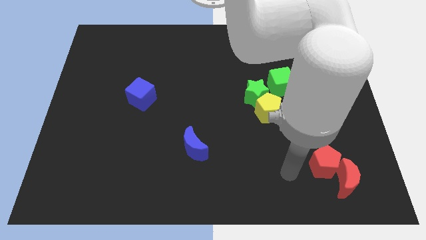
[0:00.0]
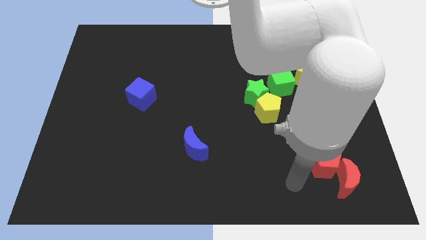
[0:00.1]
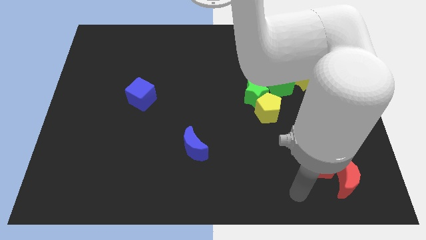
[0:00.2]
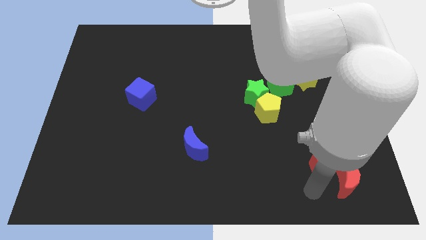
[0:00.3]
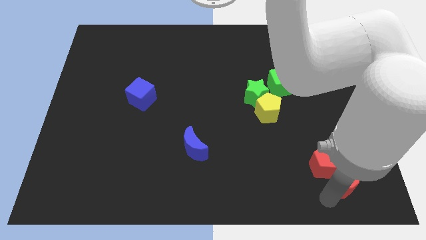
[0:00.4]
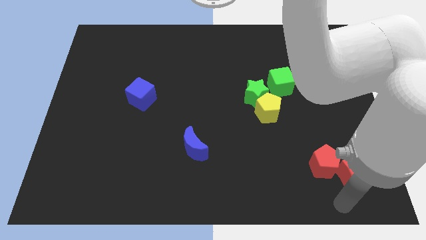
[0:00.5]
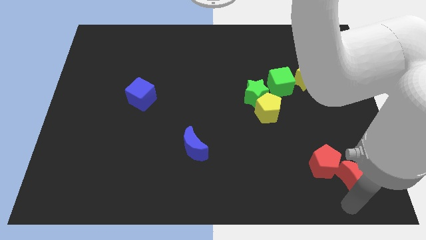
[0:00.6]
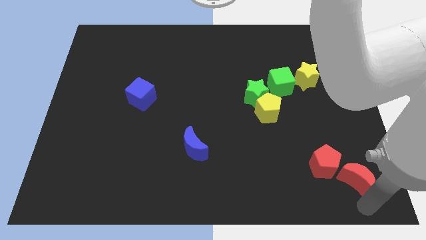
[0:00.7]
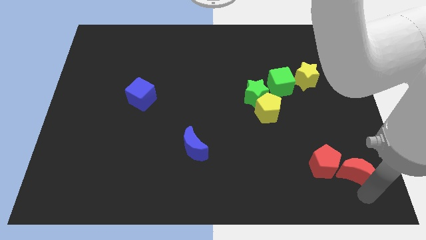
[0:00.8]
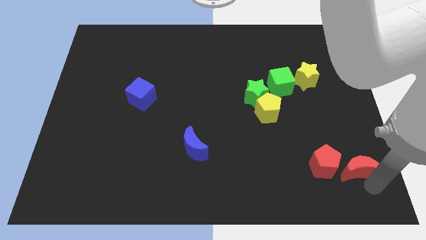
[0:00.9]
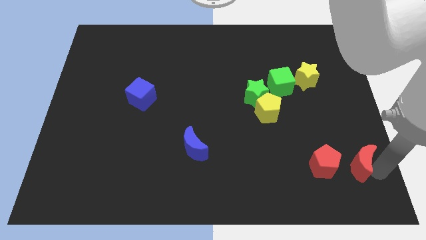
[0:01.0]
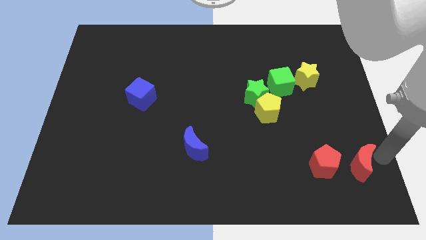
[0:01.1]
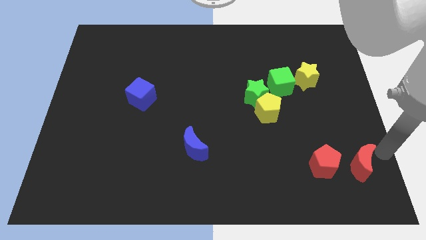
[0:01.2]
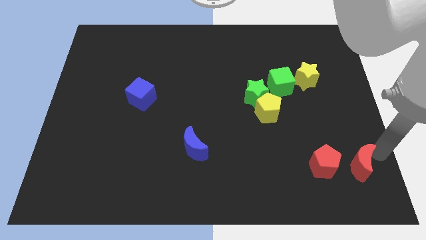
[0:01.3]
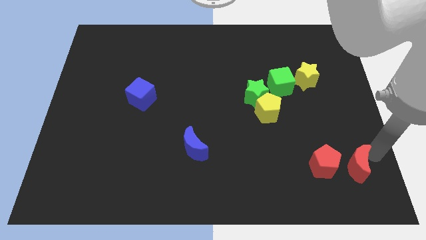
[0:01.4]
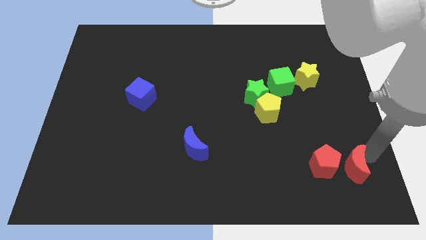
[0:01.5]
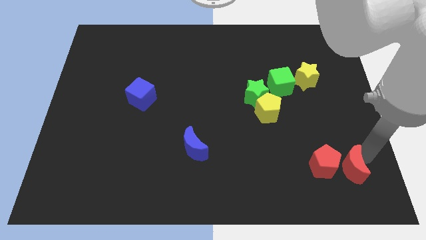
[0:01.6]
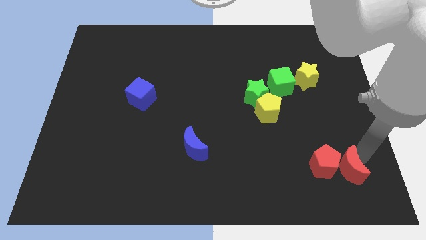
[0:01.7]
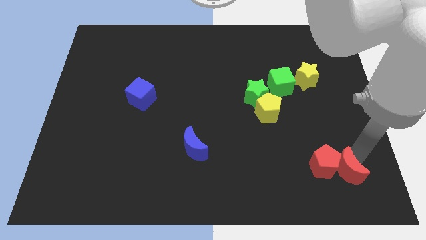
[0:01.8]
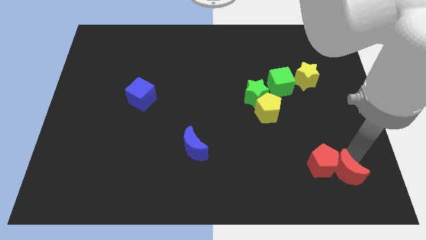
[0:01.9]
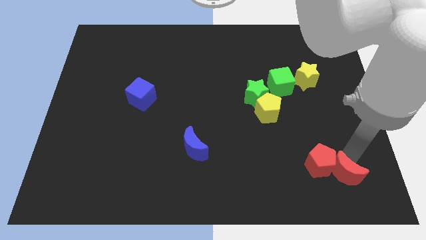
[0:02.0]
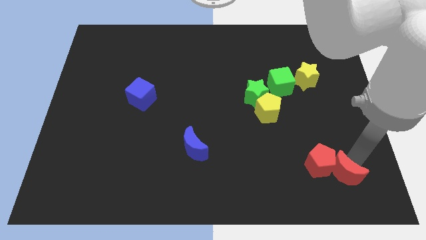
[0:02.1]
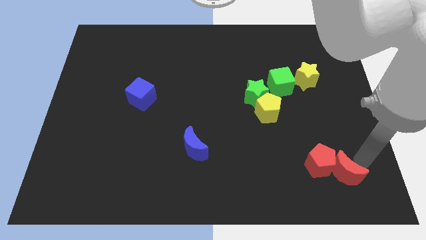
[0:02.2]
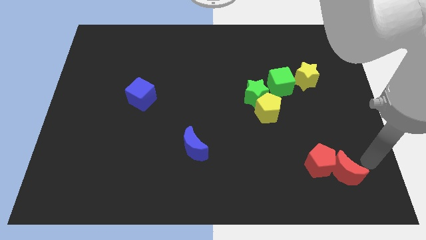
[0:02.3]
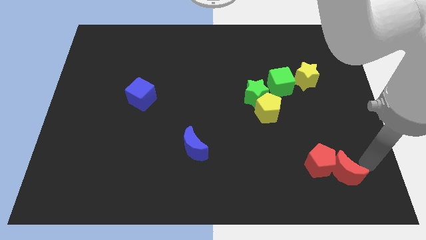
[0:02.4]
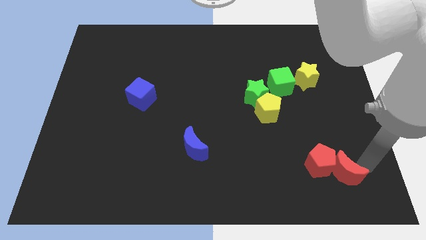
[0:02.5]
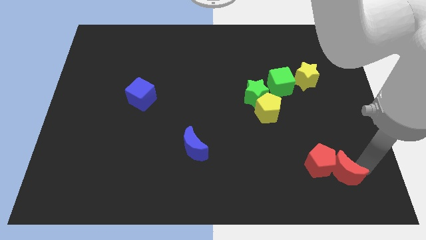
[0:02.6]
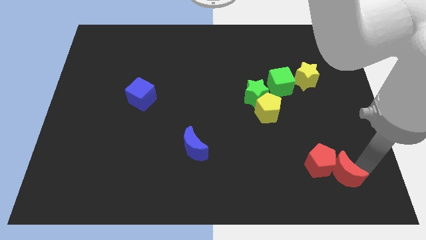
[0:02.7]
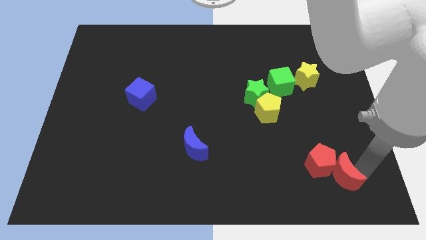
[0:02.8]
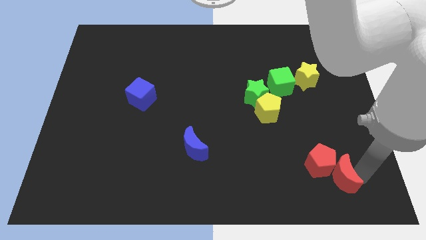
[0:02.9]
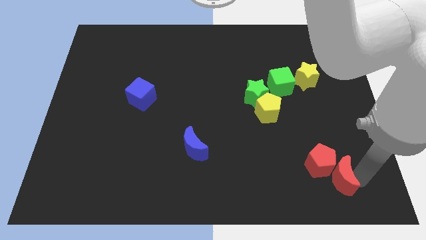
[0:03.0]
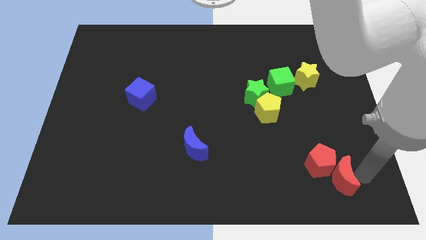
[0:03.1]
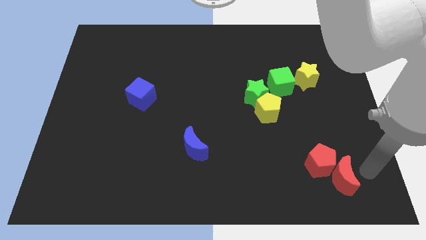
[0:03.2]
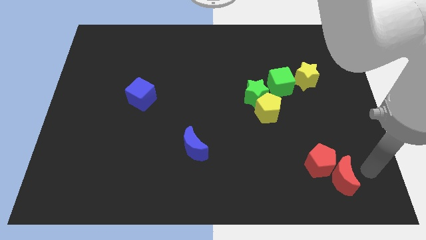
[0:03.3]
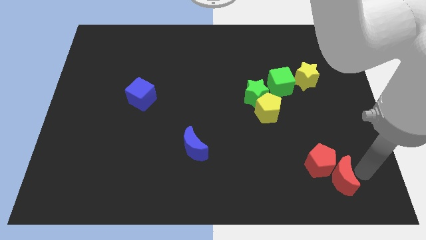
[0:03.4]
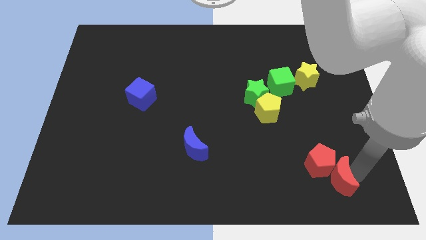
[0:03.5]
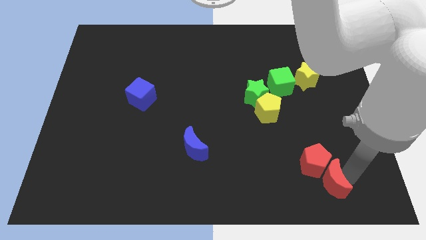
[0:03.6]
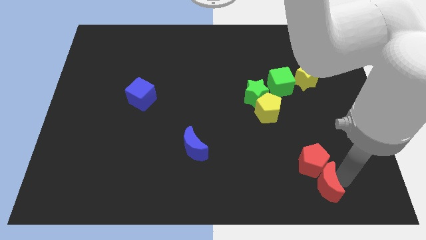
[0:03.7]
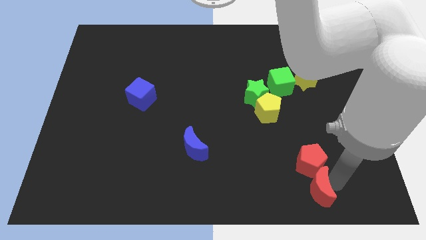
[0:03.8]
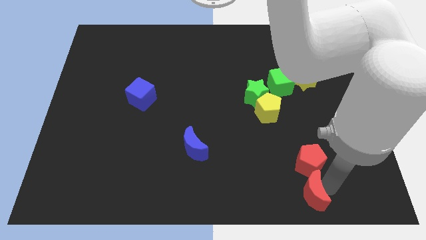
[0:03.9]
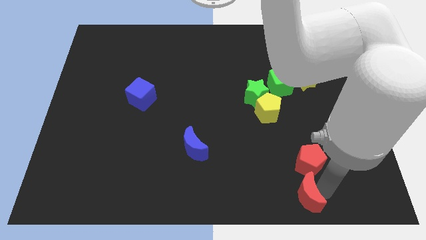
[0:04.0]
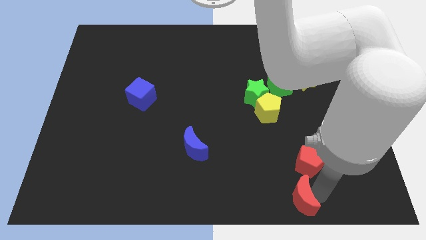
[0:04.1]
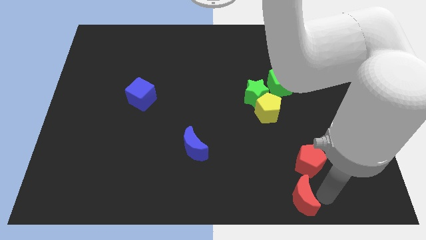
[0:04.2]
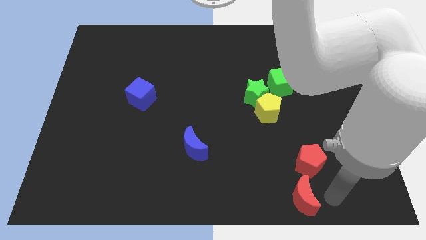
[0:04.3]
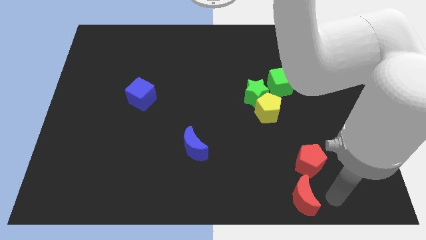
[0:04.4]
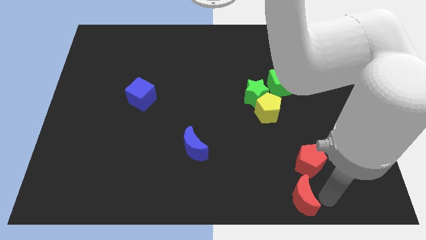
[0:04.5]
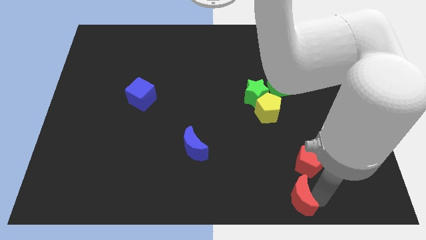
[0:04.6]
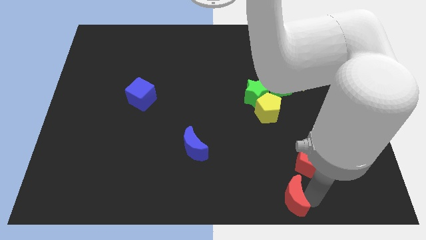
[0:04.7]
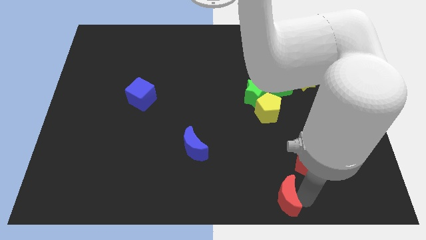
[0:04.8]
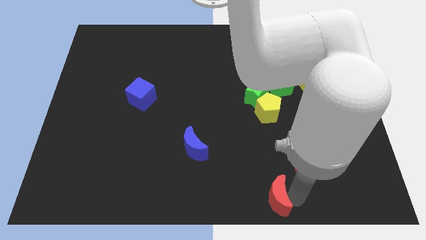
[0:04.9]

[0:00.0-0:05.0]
put the red moon to the bottom side

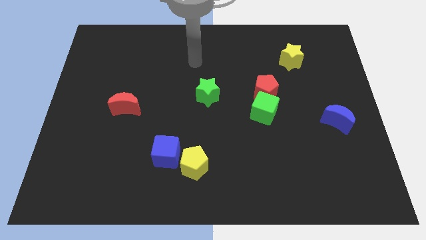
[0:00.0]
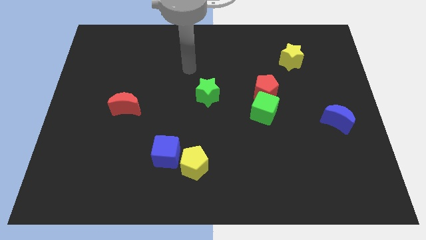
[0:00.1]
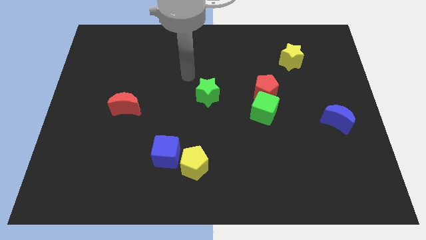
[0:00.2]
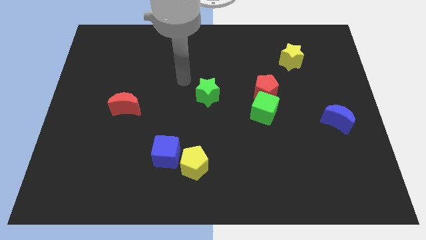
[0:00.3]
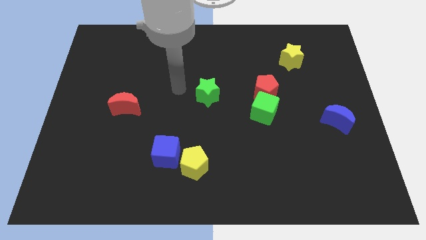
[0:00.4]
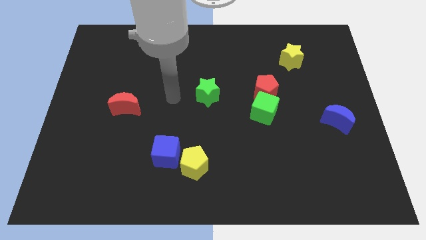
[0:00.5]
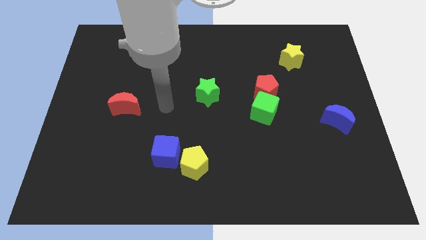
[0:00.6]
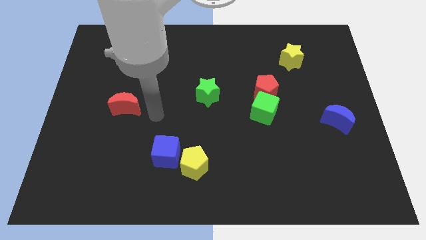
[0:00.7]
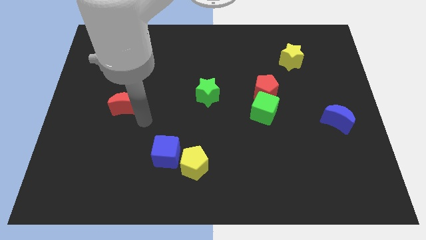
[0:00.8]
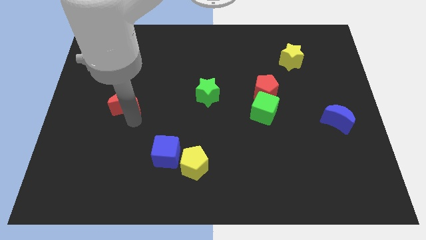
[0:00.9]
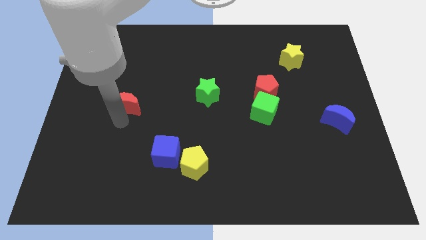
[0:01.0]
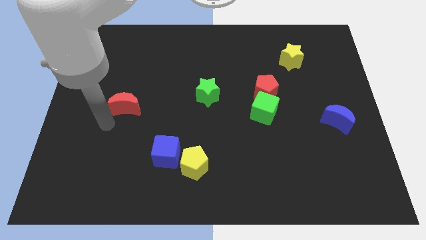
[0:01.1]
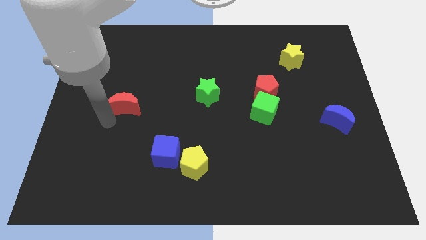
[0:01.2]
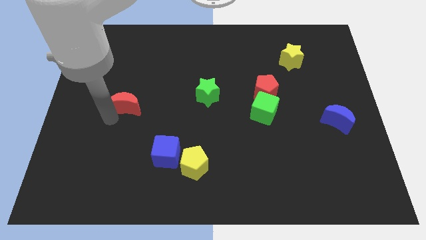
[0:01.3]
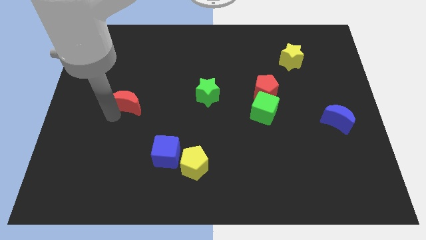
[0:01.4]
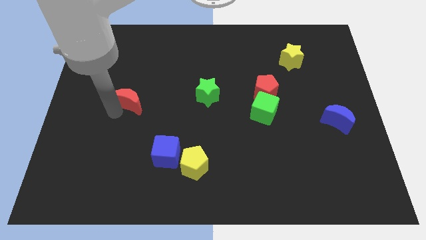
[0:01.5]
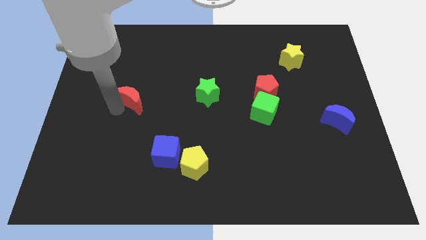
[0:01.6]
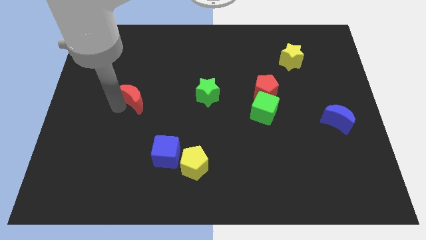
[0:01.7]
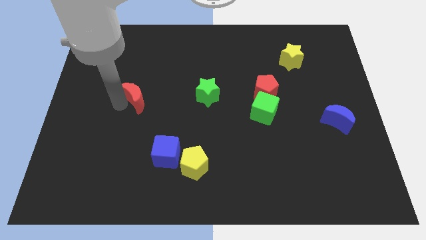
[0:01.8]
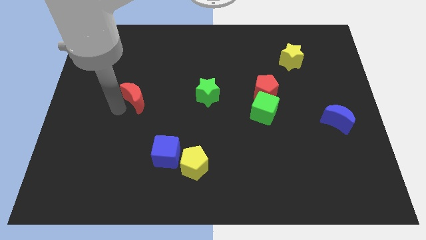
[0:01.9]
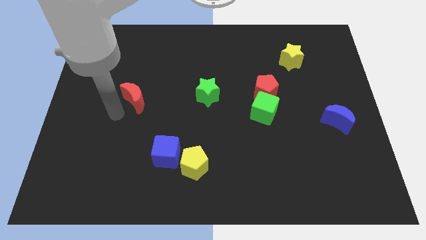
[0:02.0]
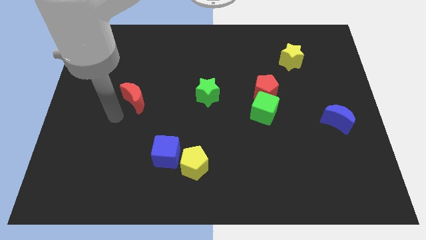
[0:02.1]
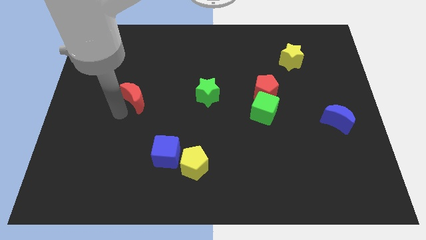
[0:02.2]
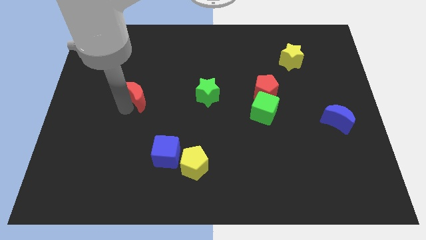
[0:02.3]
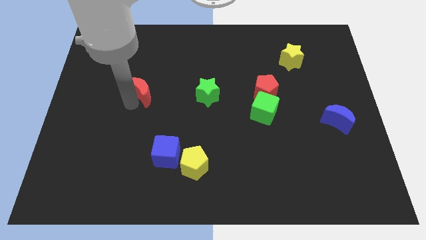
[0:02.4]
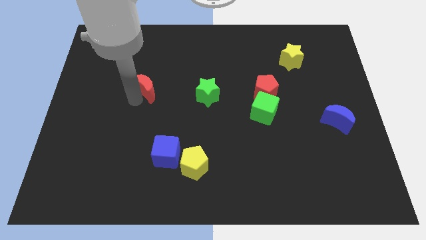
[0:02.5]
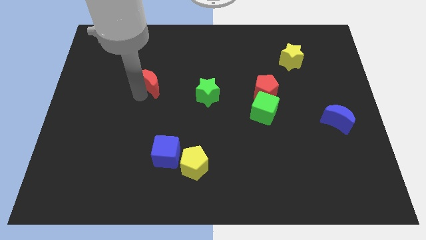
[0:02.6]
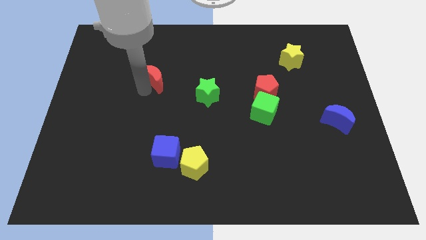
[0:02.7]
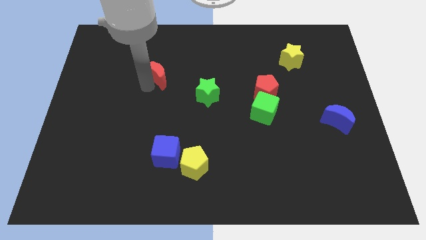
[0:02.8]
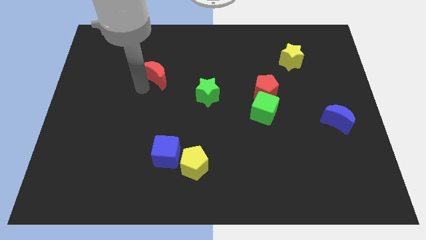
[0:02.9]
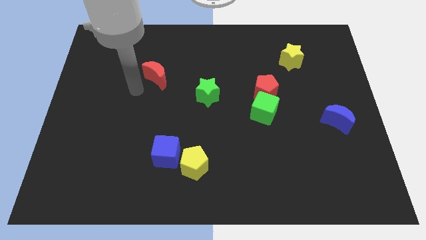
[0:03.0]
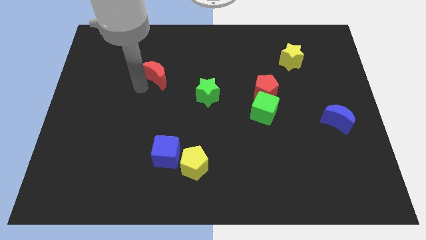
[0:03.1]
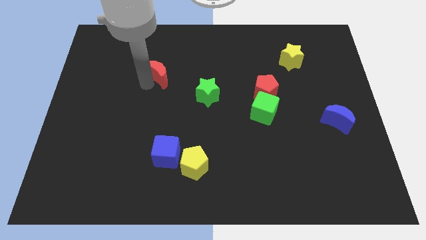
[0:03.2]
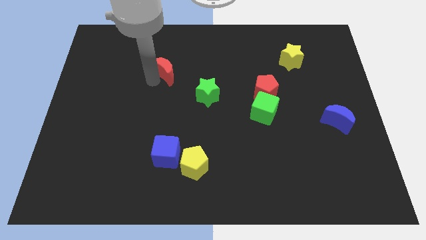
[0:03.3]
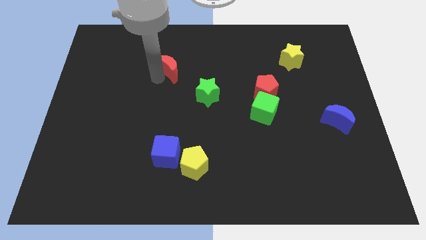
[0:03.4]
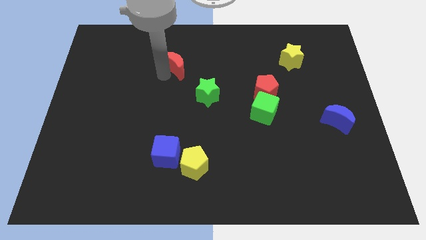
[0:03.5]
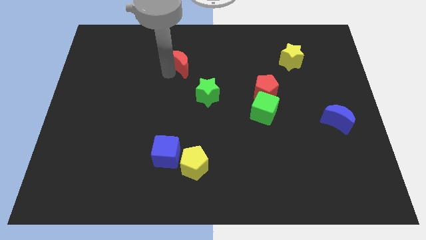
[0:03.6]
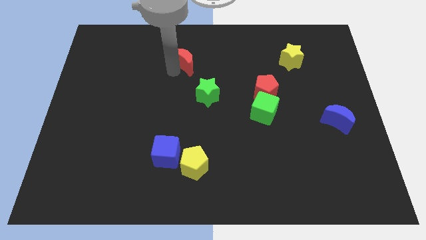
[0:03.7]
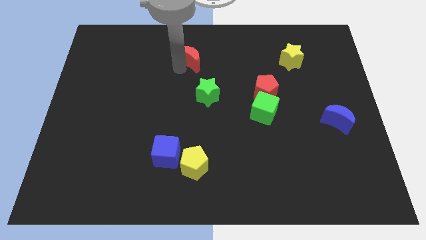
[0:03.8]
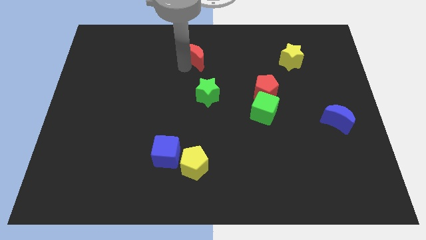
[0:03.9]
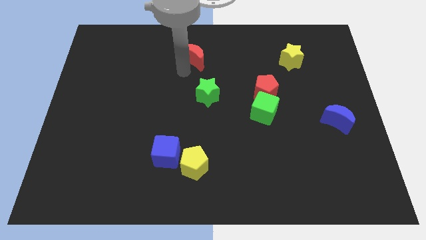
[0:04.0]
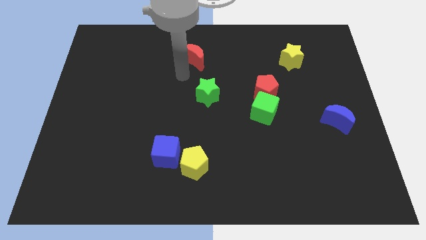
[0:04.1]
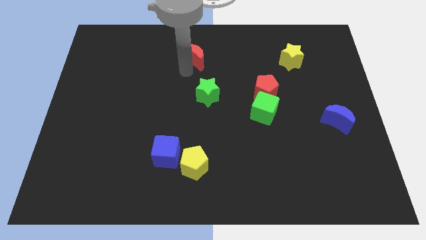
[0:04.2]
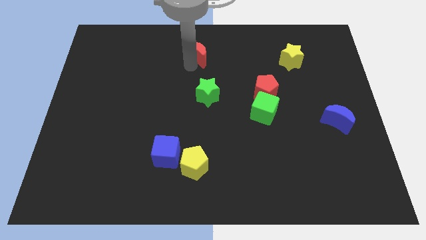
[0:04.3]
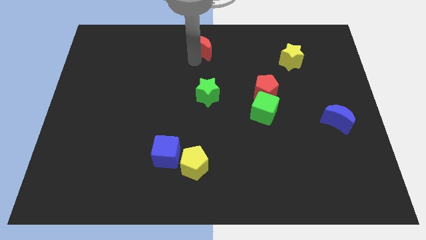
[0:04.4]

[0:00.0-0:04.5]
put the red moon to the top
